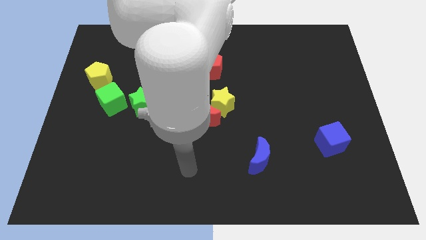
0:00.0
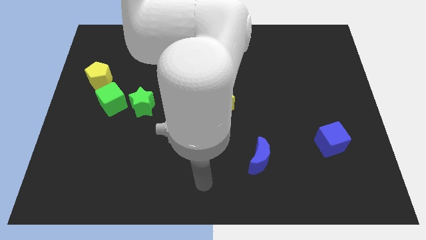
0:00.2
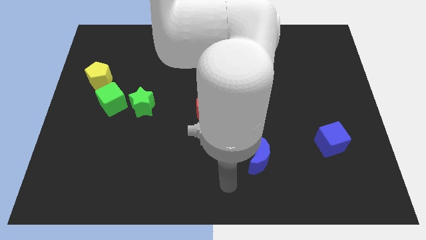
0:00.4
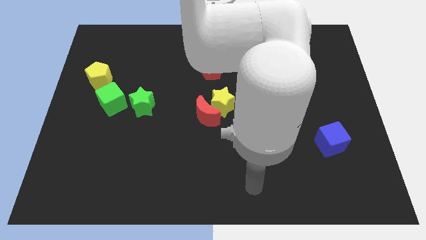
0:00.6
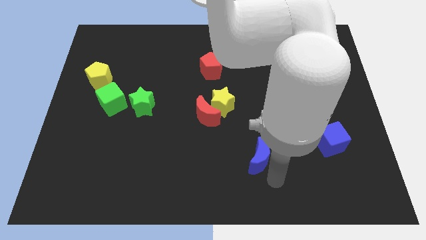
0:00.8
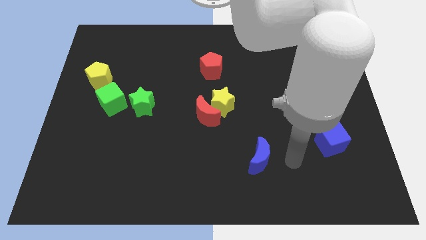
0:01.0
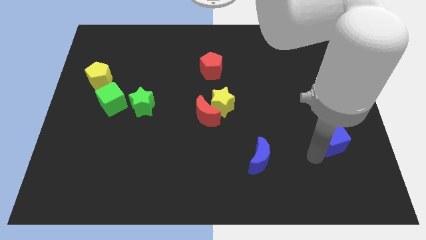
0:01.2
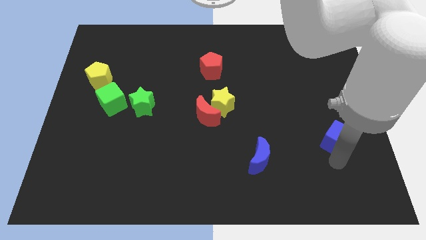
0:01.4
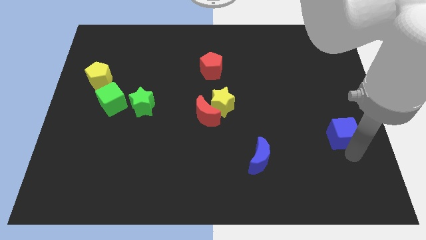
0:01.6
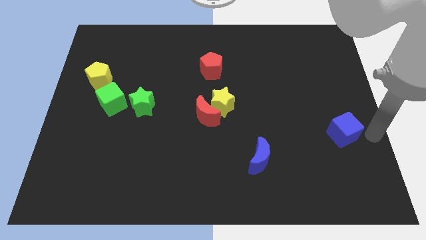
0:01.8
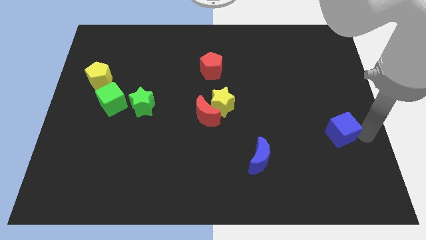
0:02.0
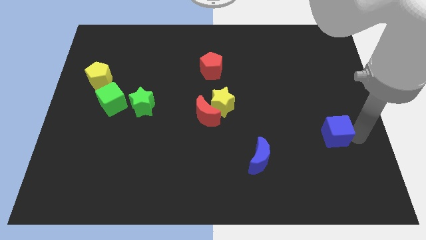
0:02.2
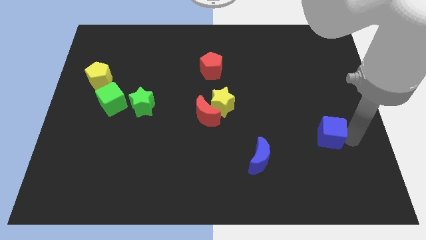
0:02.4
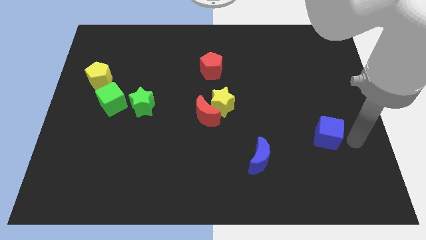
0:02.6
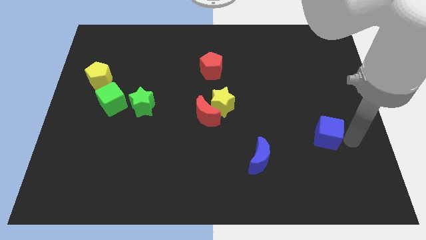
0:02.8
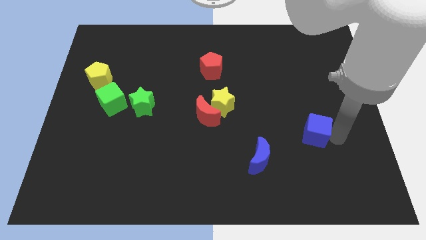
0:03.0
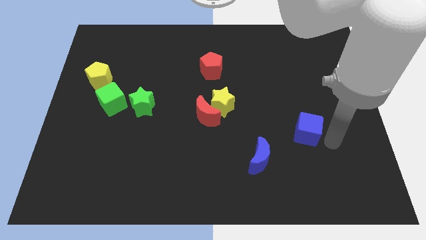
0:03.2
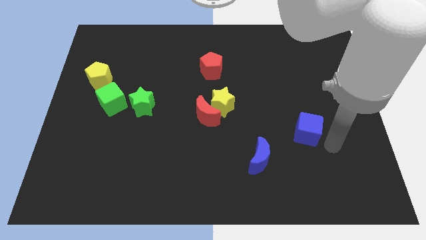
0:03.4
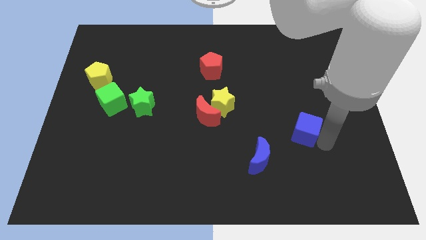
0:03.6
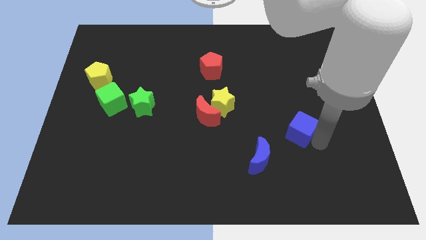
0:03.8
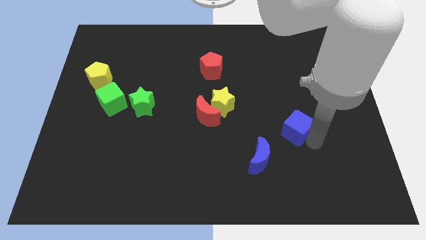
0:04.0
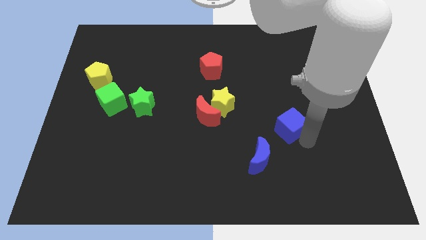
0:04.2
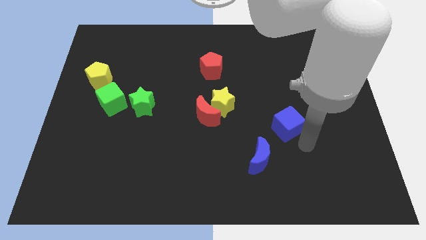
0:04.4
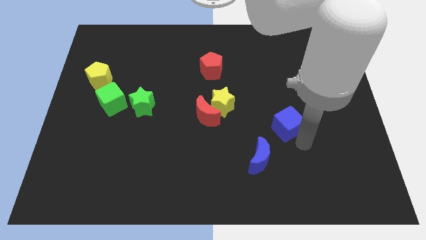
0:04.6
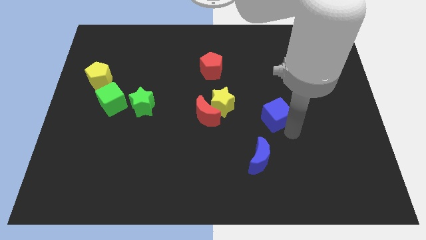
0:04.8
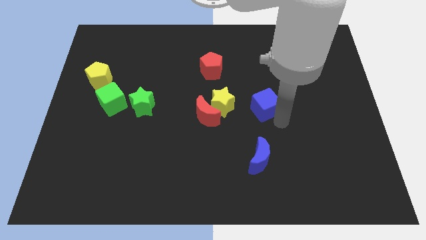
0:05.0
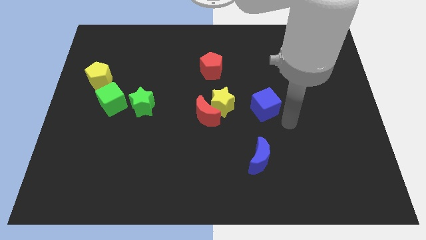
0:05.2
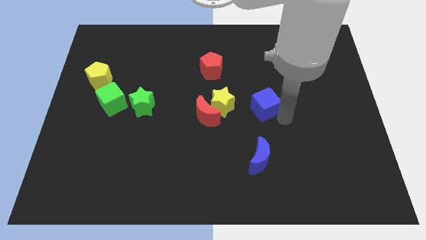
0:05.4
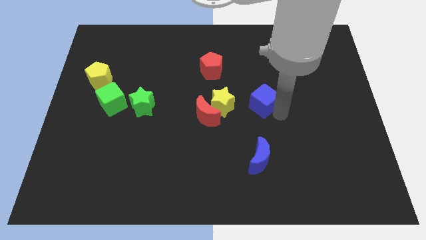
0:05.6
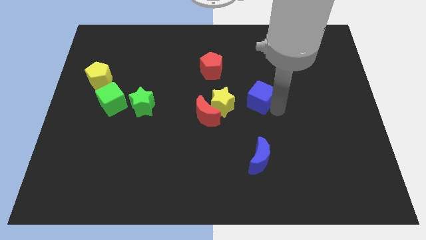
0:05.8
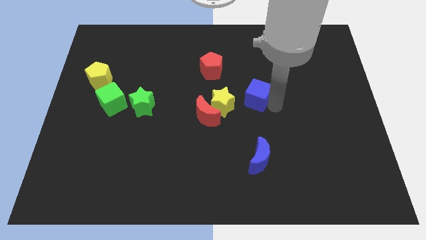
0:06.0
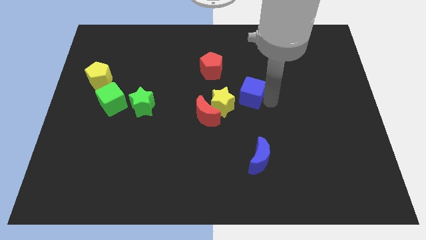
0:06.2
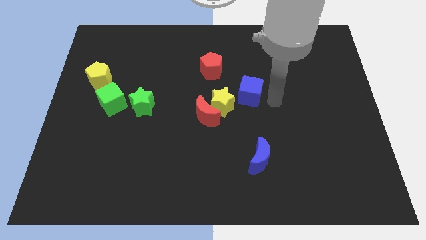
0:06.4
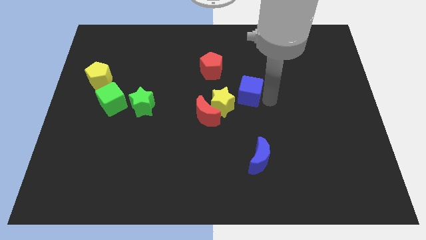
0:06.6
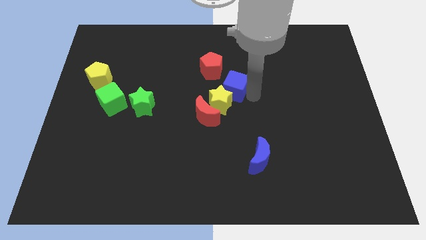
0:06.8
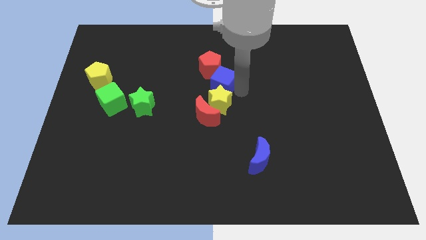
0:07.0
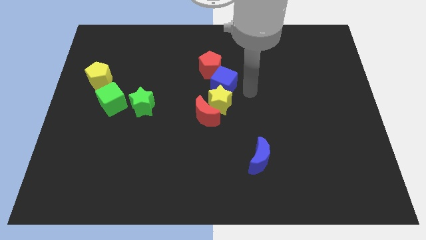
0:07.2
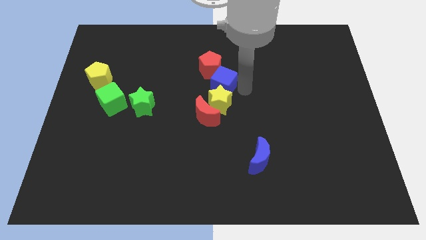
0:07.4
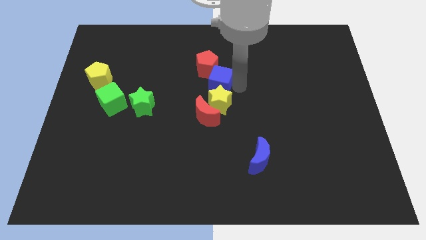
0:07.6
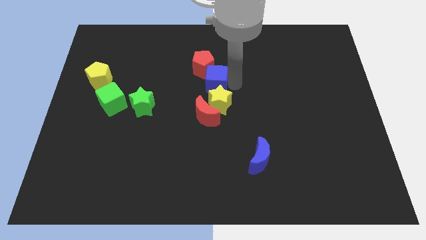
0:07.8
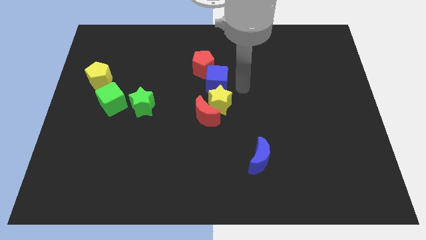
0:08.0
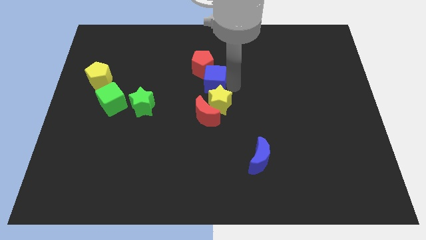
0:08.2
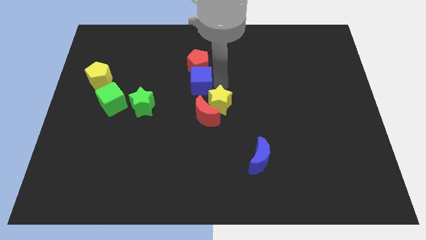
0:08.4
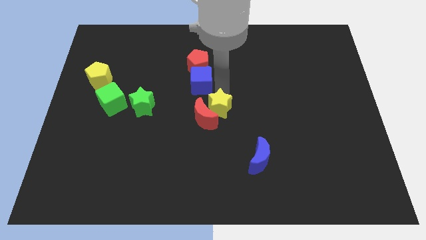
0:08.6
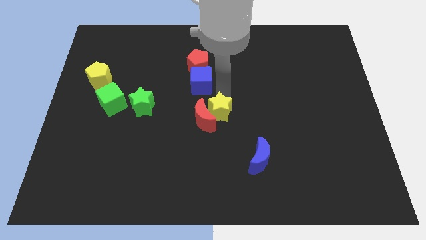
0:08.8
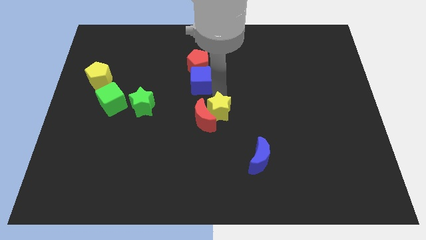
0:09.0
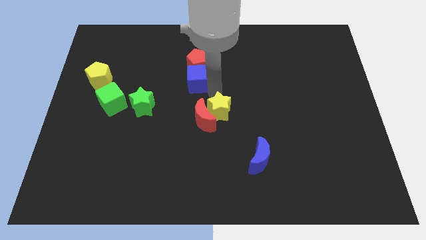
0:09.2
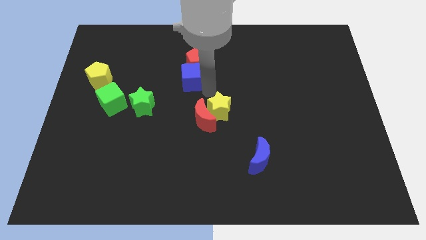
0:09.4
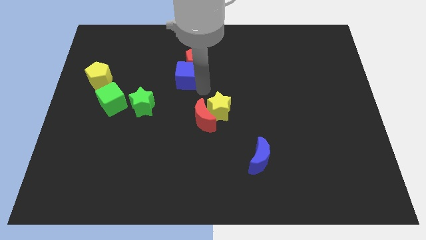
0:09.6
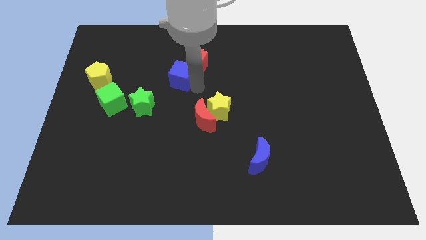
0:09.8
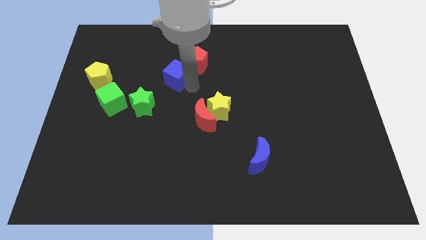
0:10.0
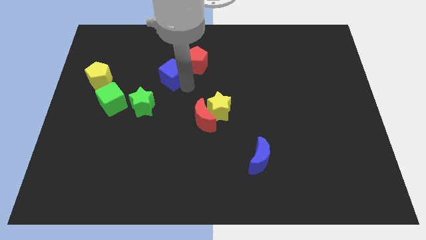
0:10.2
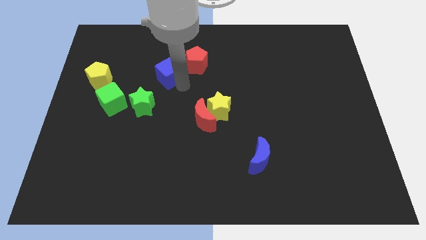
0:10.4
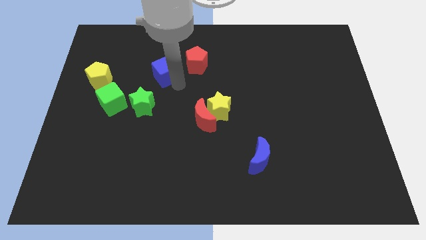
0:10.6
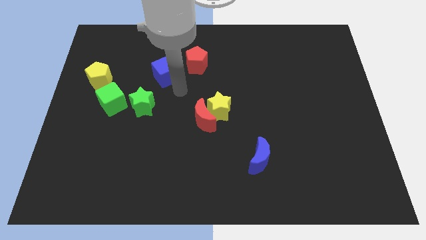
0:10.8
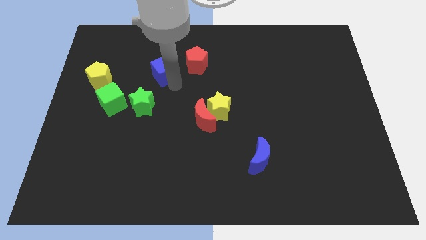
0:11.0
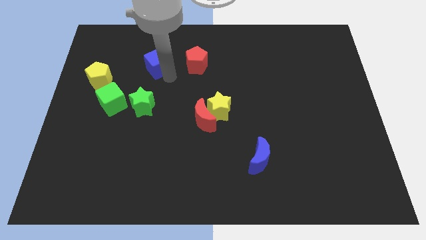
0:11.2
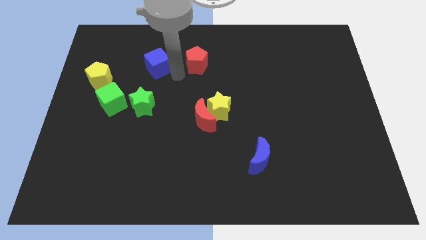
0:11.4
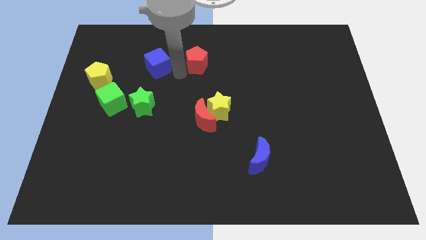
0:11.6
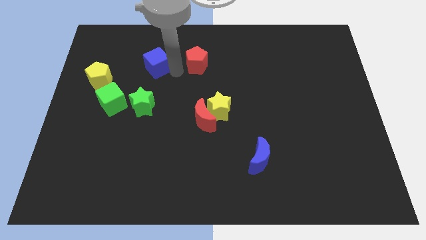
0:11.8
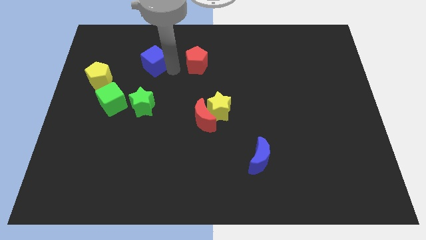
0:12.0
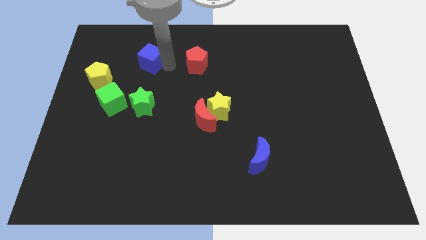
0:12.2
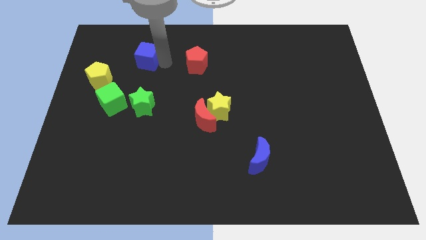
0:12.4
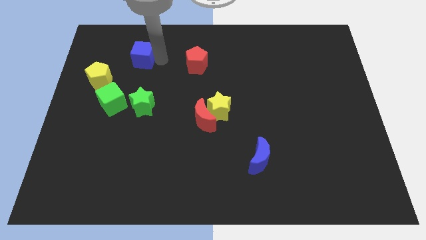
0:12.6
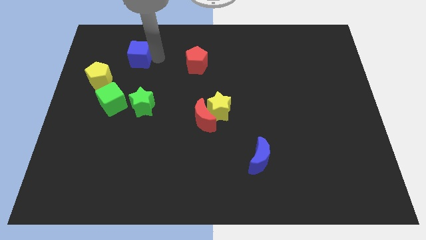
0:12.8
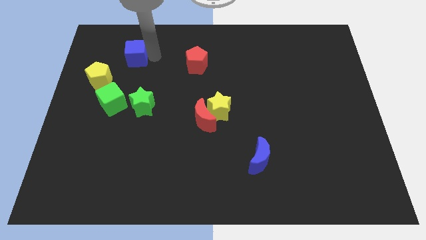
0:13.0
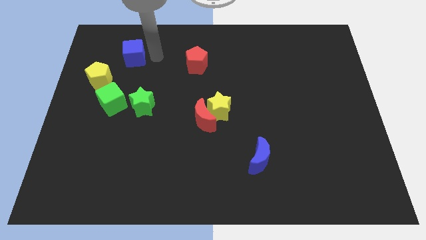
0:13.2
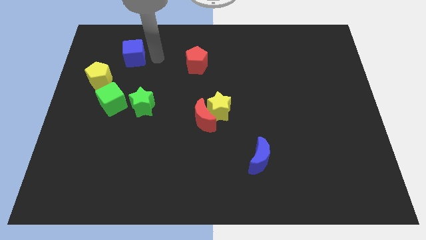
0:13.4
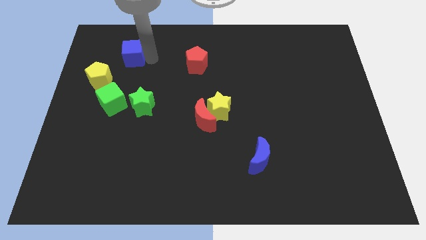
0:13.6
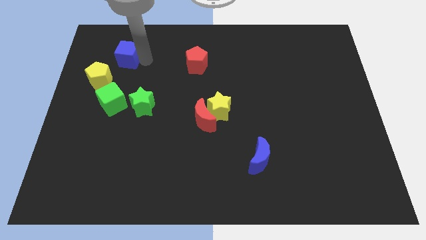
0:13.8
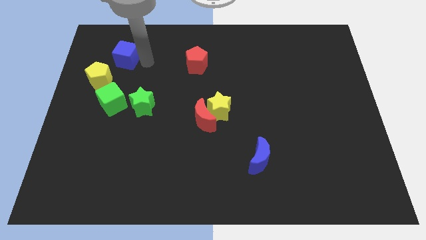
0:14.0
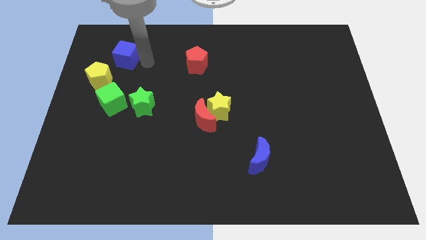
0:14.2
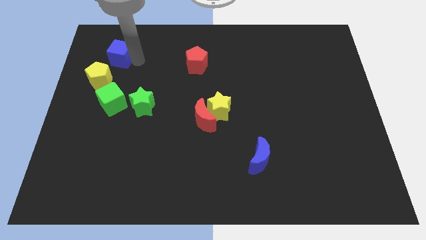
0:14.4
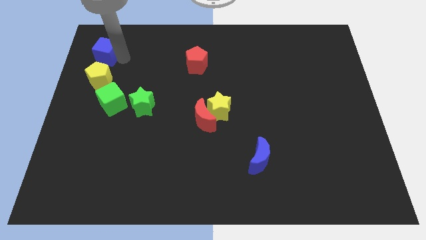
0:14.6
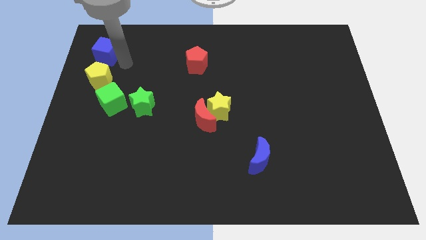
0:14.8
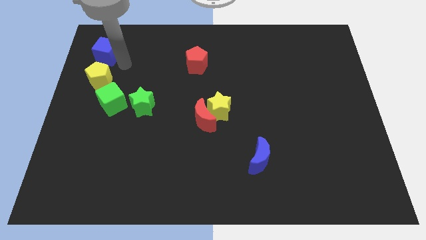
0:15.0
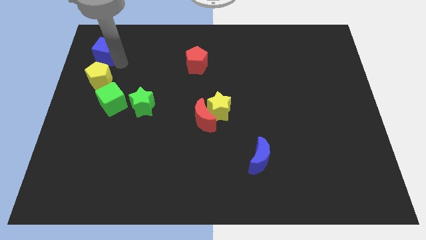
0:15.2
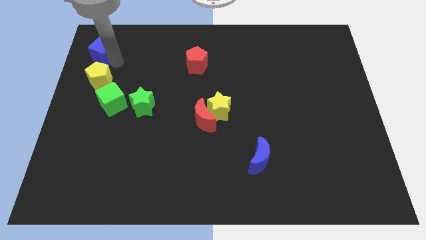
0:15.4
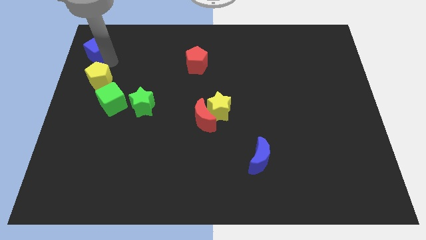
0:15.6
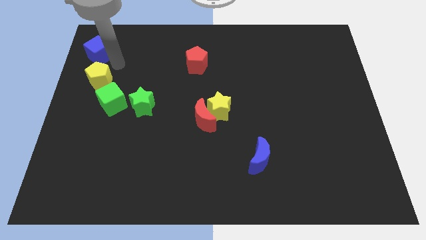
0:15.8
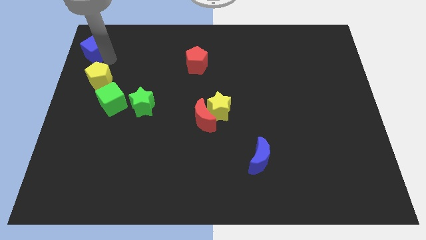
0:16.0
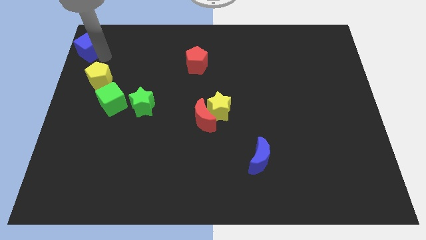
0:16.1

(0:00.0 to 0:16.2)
move the blue cube to the top left corner
